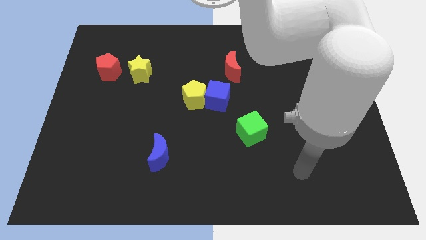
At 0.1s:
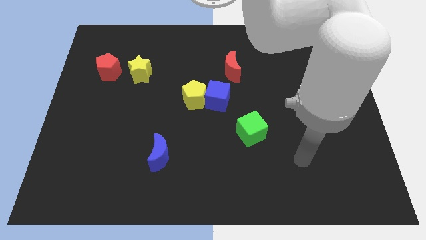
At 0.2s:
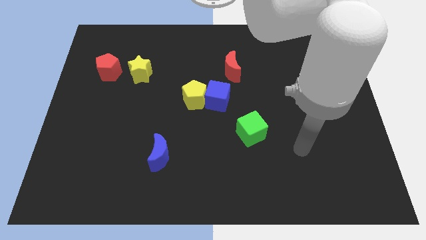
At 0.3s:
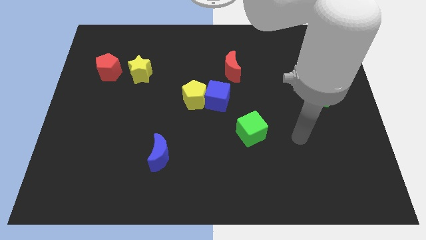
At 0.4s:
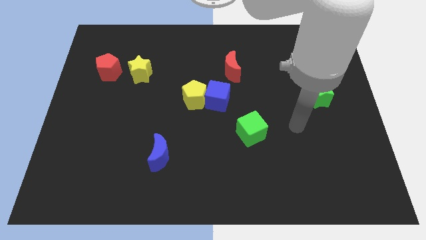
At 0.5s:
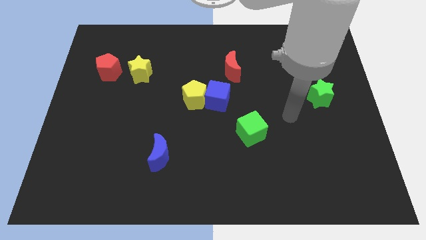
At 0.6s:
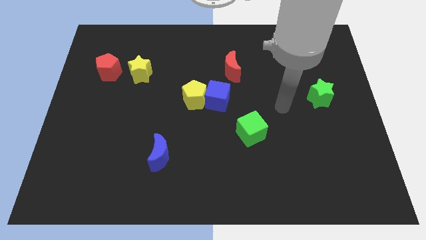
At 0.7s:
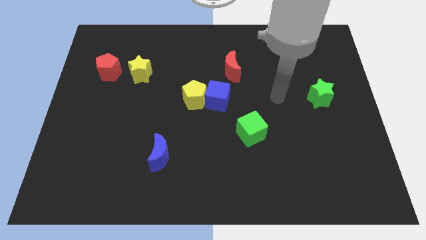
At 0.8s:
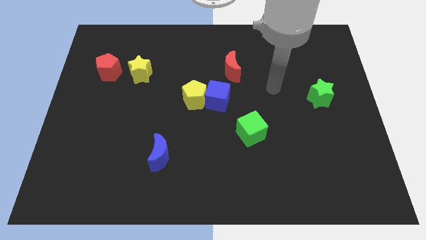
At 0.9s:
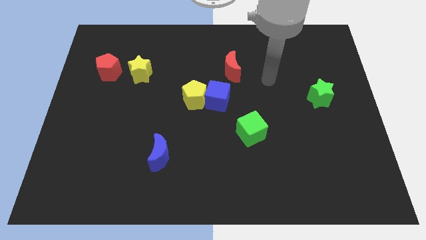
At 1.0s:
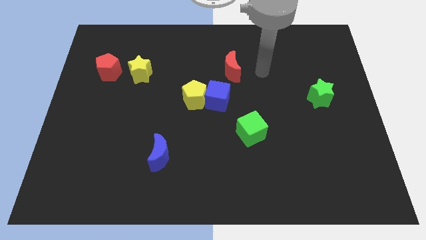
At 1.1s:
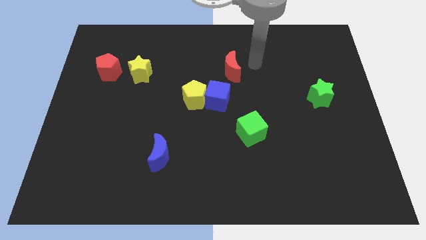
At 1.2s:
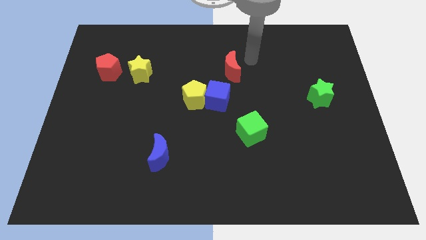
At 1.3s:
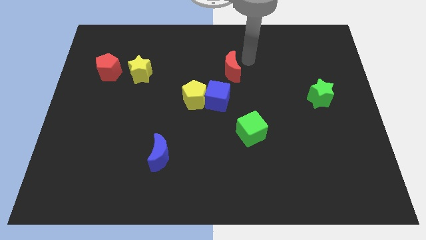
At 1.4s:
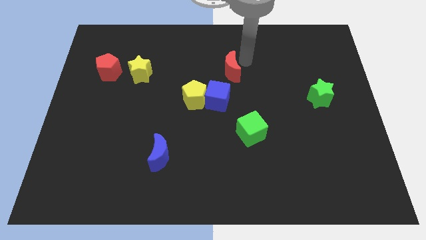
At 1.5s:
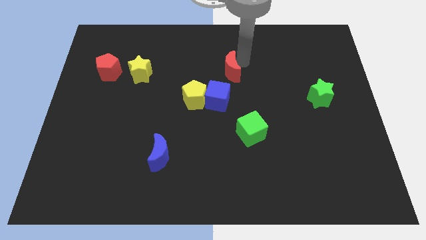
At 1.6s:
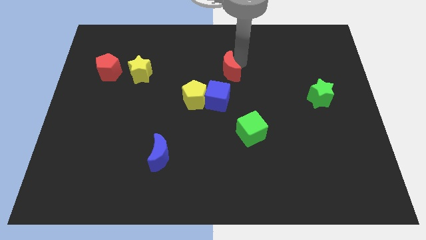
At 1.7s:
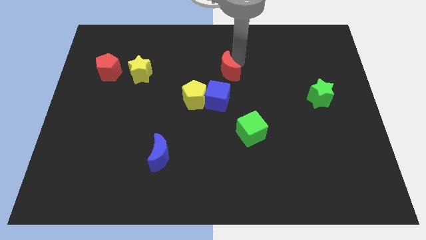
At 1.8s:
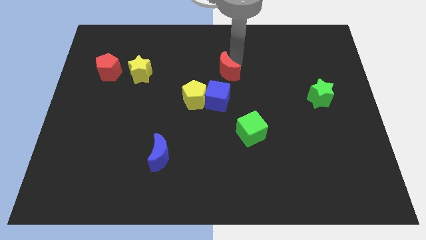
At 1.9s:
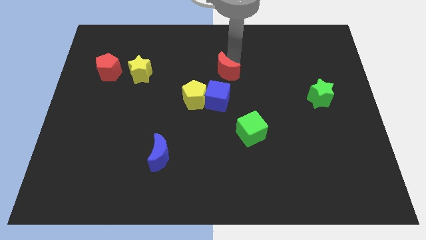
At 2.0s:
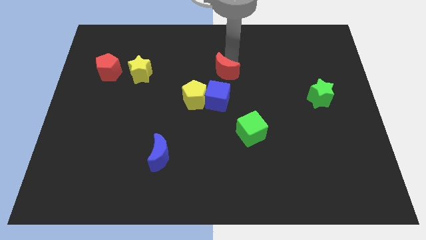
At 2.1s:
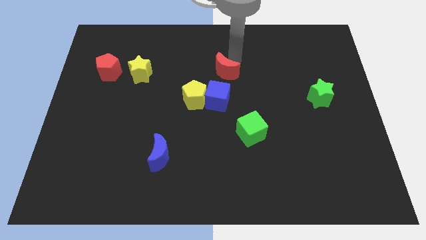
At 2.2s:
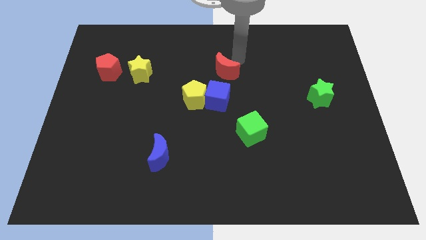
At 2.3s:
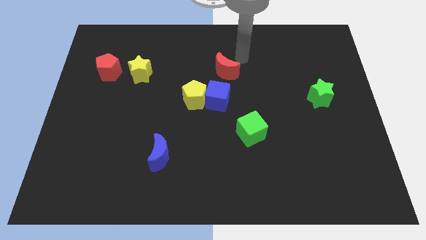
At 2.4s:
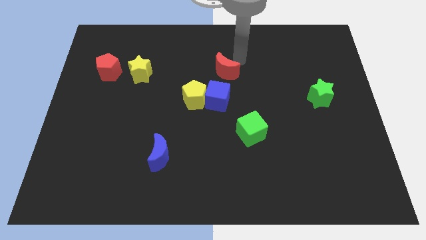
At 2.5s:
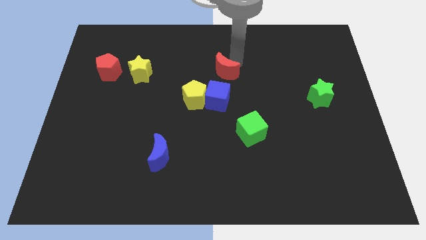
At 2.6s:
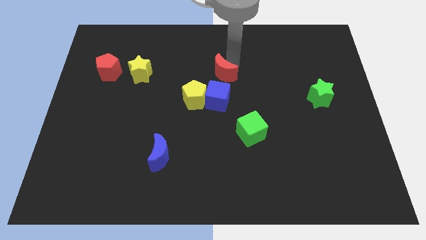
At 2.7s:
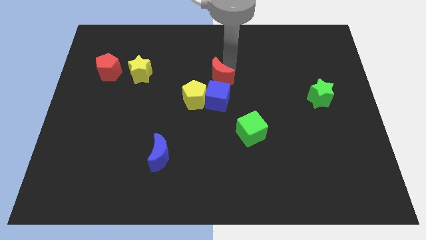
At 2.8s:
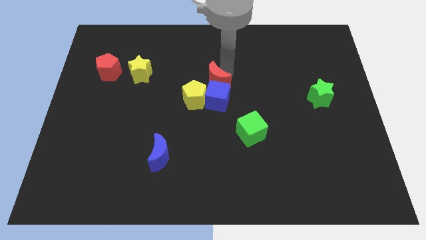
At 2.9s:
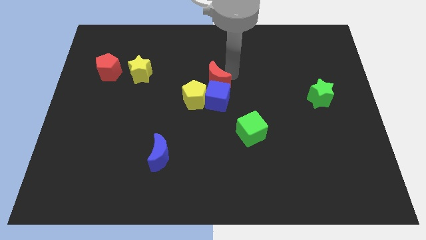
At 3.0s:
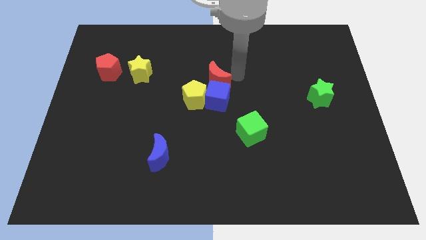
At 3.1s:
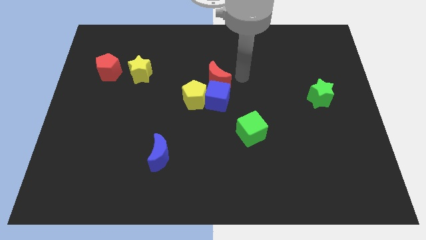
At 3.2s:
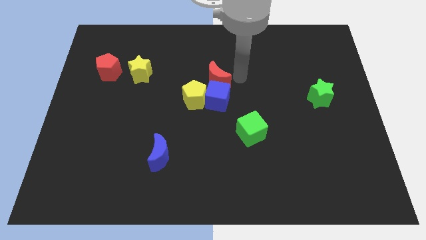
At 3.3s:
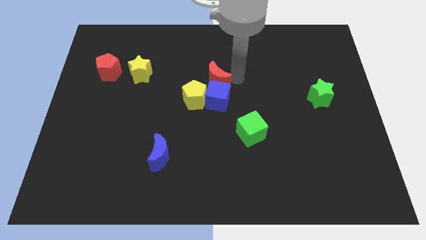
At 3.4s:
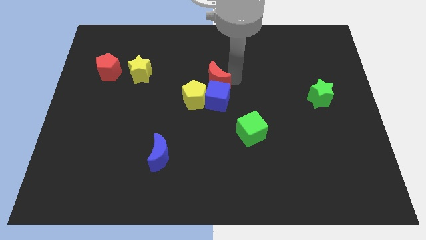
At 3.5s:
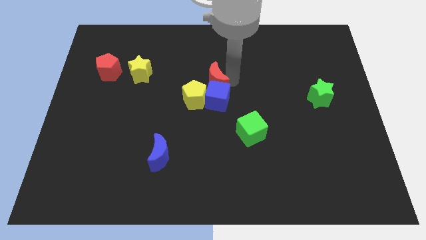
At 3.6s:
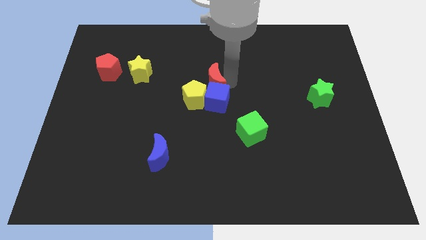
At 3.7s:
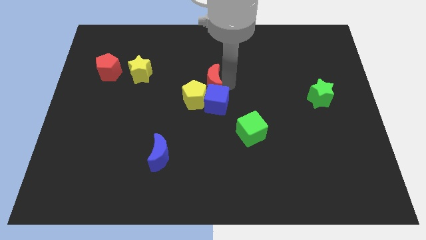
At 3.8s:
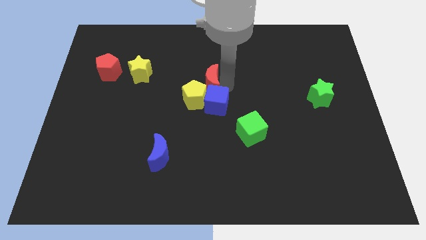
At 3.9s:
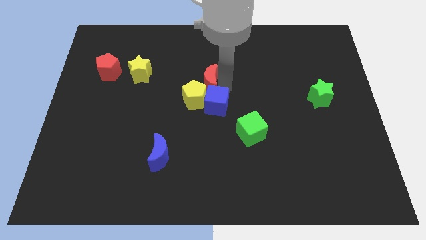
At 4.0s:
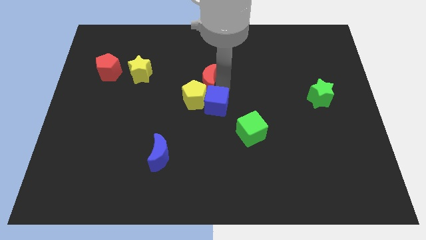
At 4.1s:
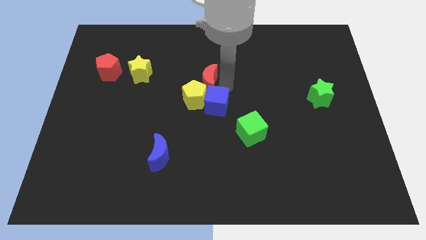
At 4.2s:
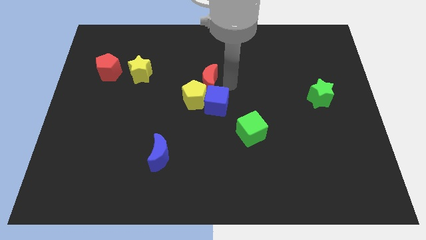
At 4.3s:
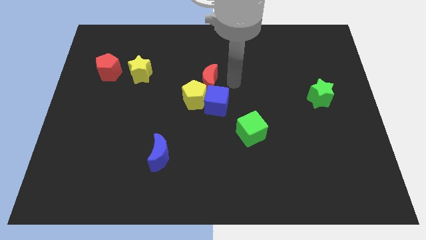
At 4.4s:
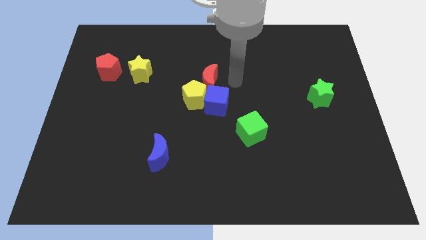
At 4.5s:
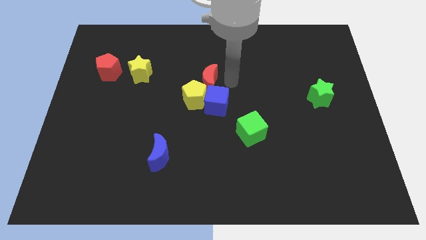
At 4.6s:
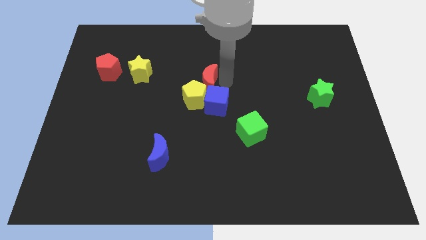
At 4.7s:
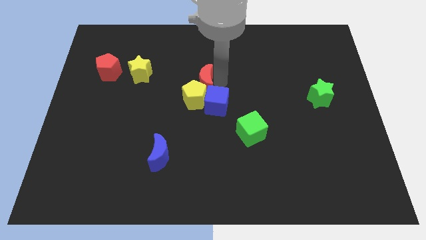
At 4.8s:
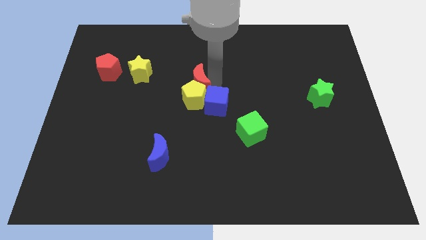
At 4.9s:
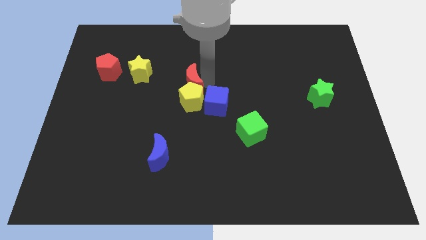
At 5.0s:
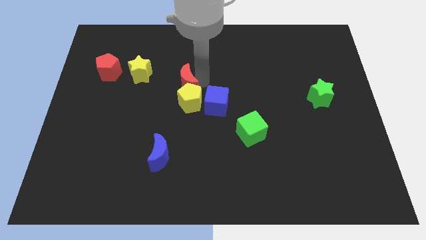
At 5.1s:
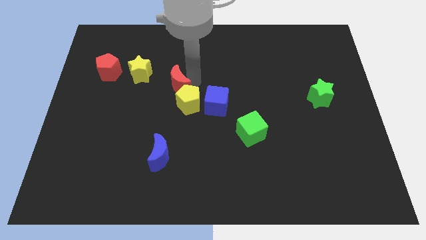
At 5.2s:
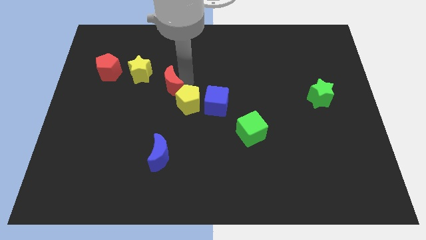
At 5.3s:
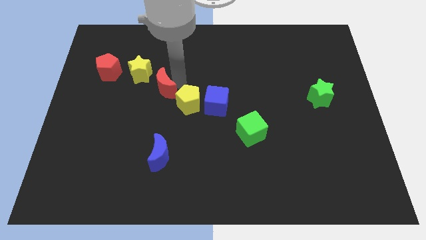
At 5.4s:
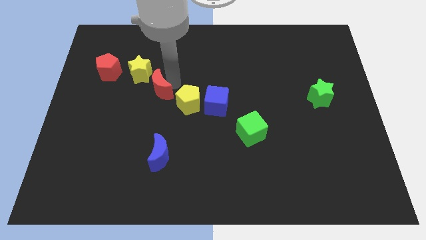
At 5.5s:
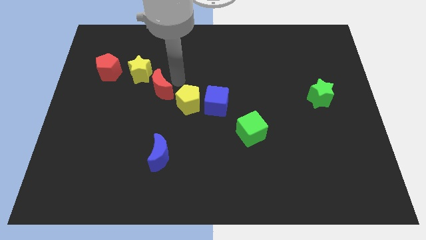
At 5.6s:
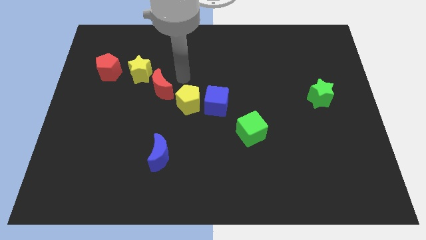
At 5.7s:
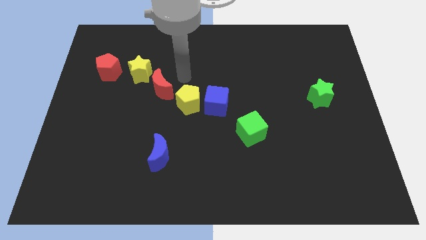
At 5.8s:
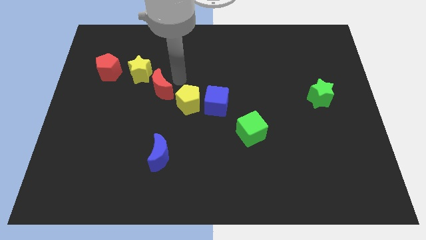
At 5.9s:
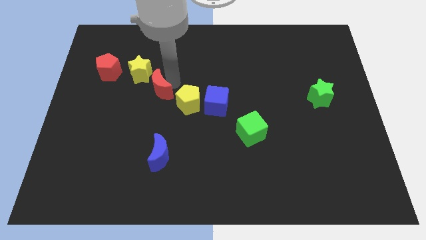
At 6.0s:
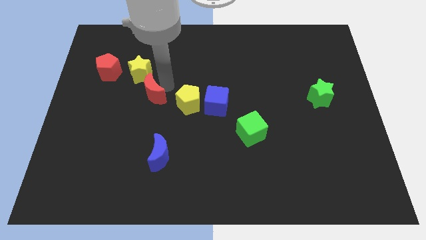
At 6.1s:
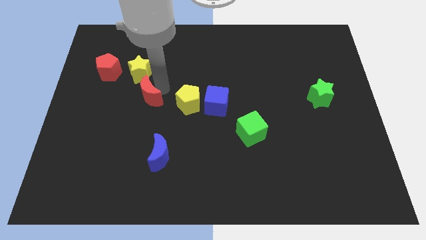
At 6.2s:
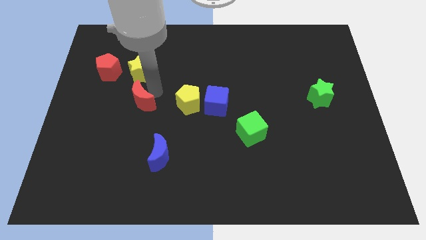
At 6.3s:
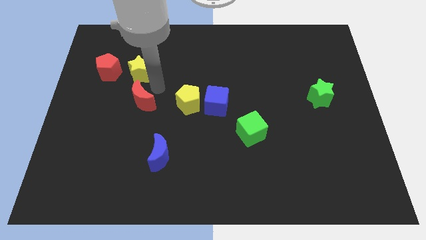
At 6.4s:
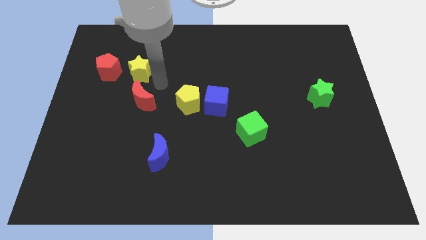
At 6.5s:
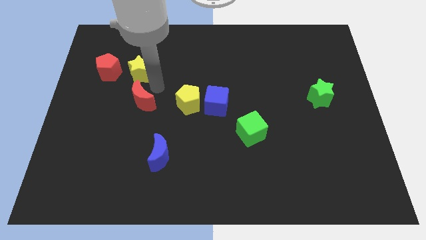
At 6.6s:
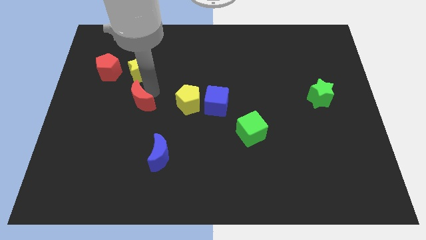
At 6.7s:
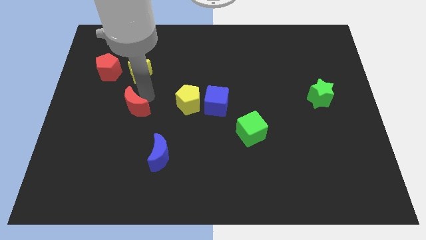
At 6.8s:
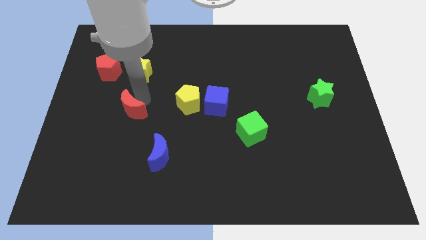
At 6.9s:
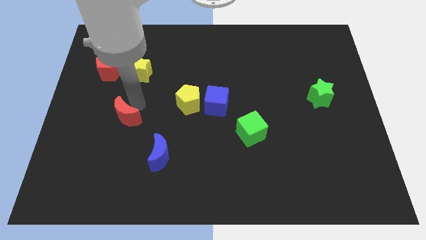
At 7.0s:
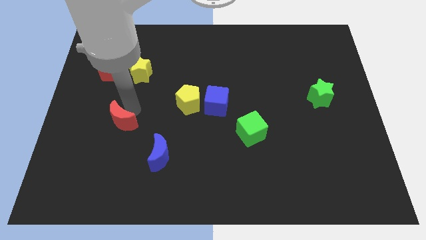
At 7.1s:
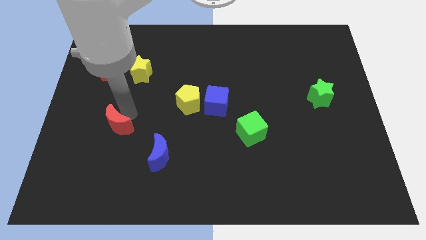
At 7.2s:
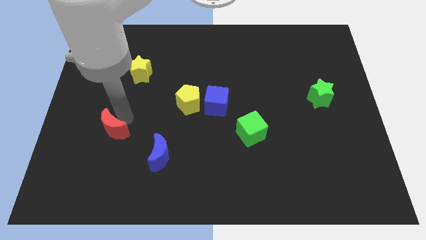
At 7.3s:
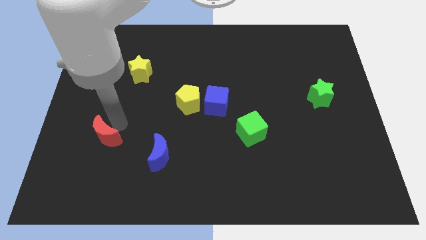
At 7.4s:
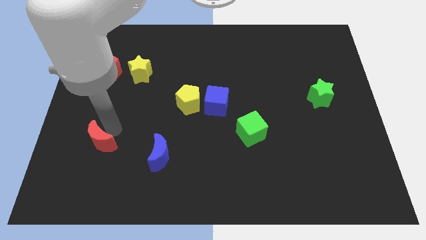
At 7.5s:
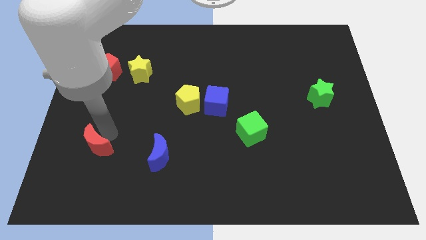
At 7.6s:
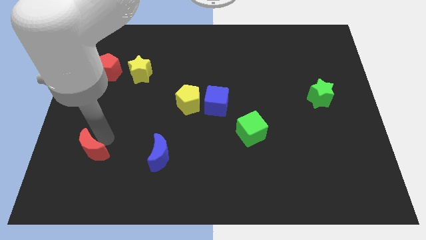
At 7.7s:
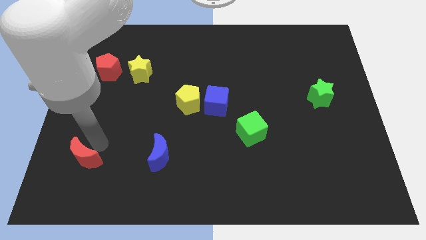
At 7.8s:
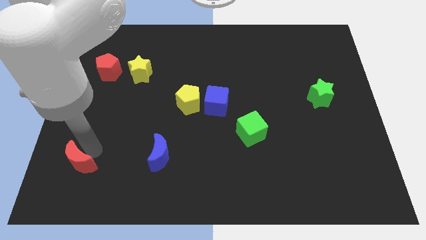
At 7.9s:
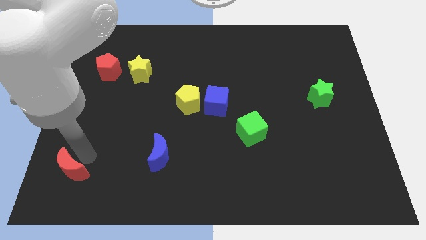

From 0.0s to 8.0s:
move the red moon to the lower left corner
